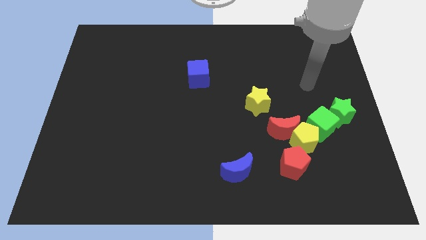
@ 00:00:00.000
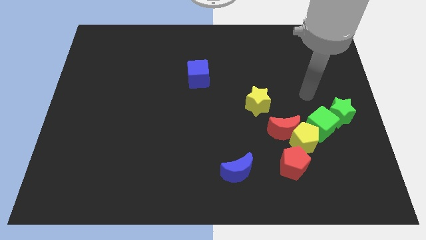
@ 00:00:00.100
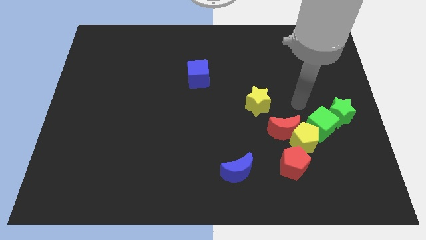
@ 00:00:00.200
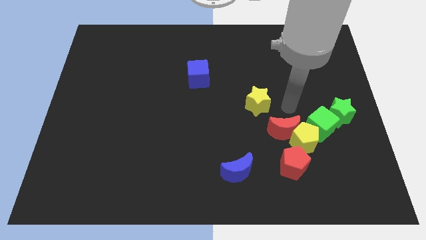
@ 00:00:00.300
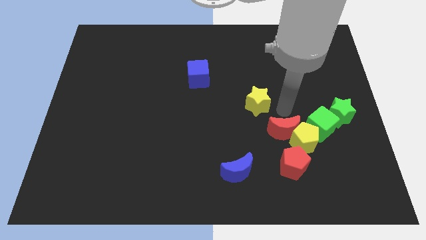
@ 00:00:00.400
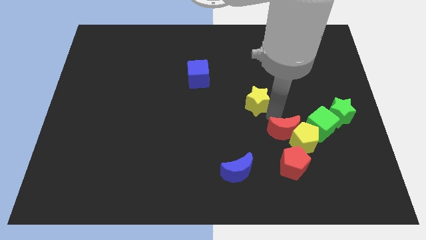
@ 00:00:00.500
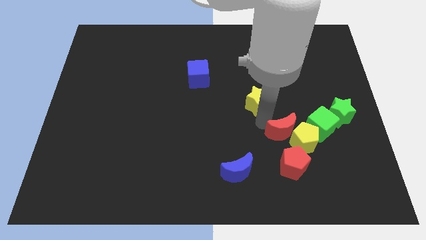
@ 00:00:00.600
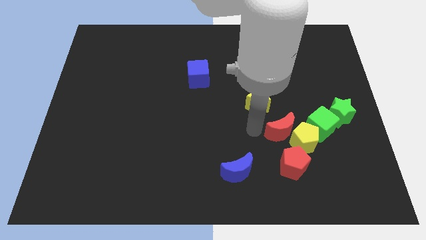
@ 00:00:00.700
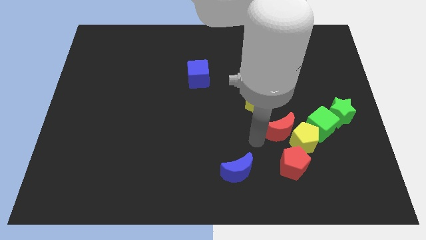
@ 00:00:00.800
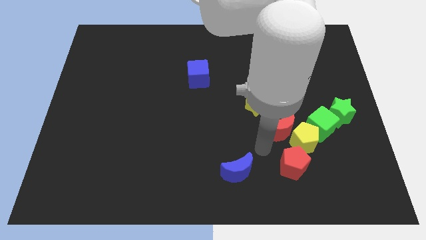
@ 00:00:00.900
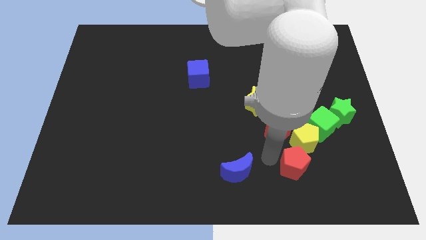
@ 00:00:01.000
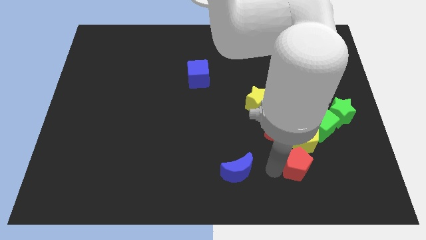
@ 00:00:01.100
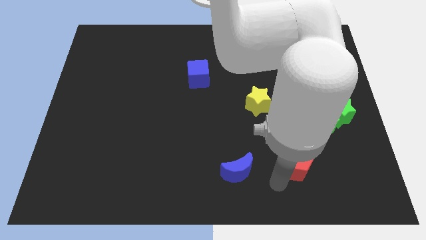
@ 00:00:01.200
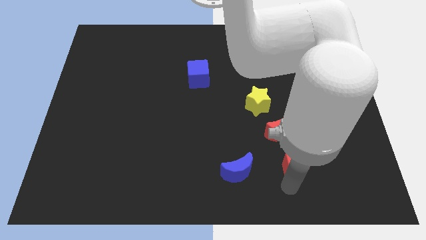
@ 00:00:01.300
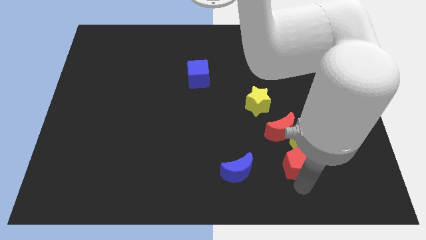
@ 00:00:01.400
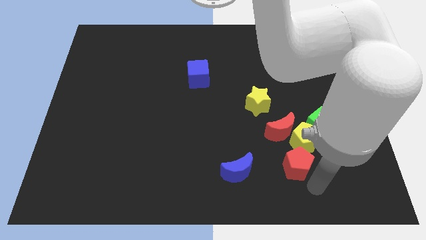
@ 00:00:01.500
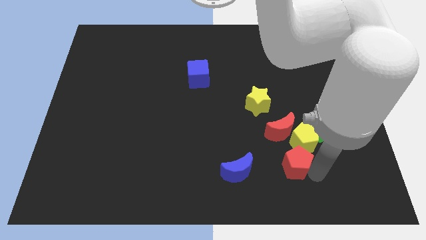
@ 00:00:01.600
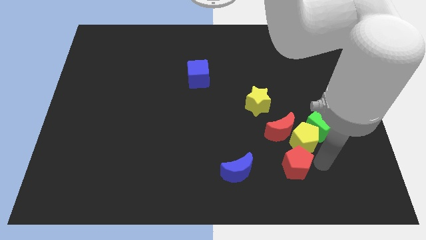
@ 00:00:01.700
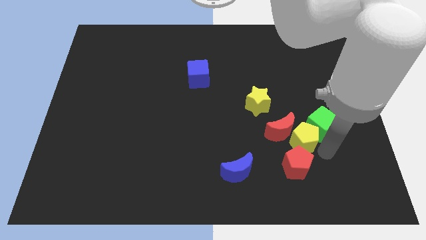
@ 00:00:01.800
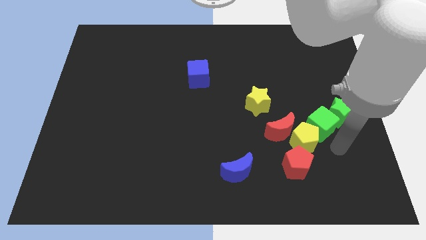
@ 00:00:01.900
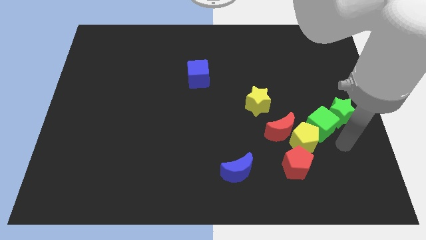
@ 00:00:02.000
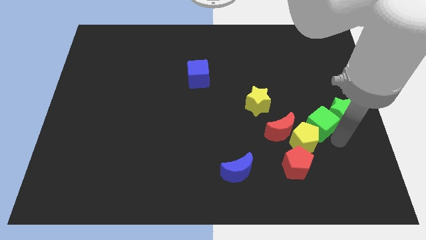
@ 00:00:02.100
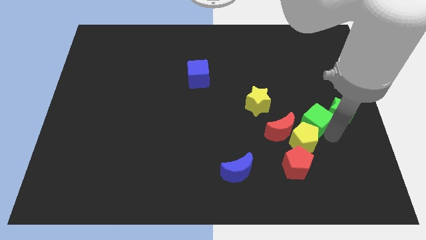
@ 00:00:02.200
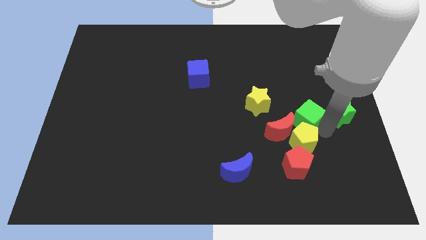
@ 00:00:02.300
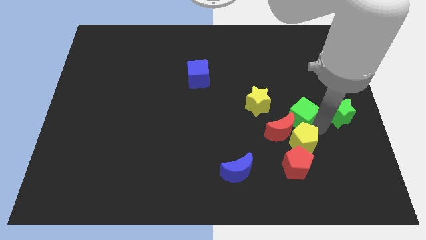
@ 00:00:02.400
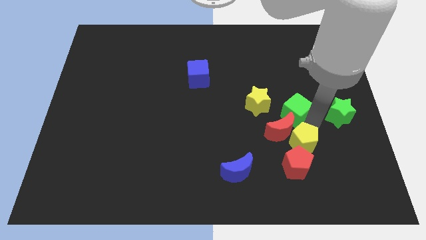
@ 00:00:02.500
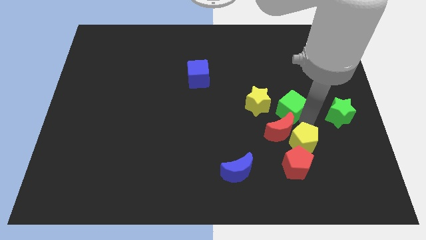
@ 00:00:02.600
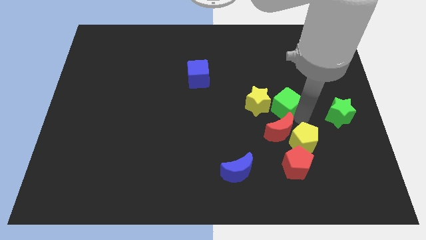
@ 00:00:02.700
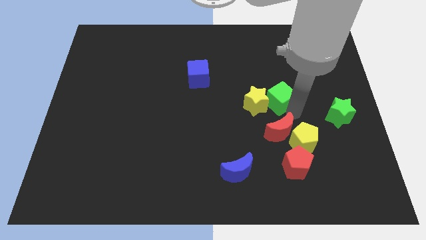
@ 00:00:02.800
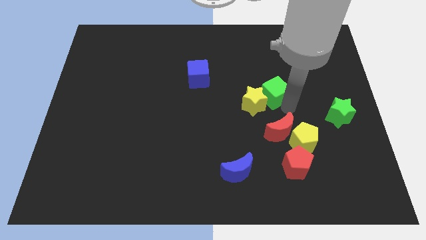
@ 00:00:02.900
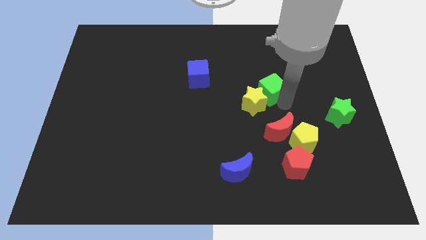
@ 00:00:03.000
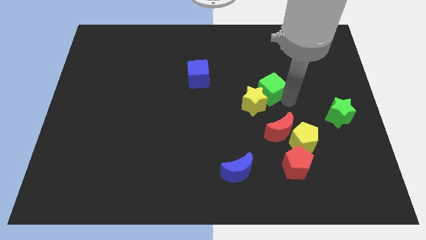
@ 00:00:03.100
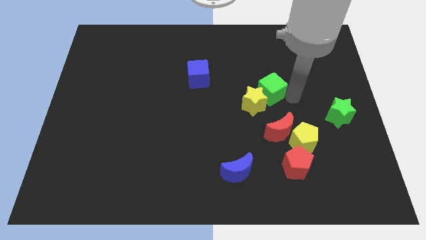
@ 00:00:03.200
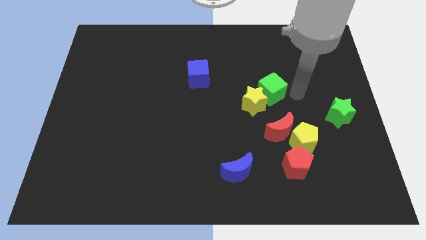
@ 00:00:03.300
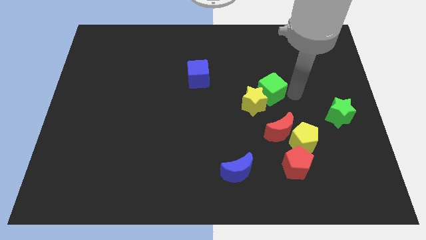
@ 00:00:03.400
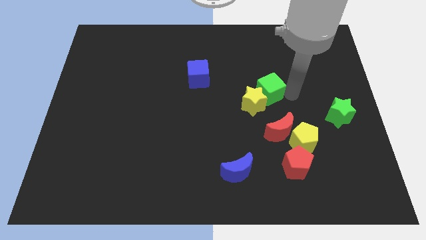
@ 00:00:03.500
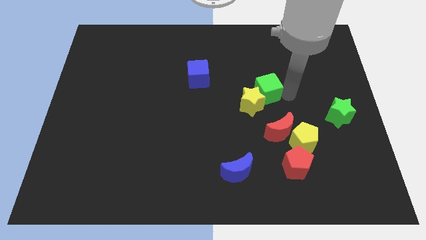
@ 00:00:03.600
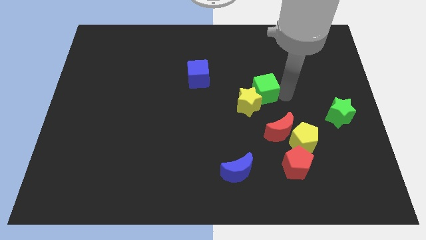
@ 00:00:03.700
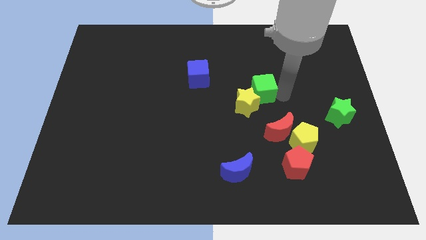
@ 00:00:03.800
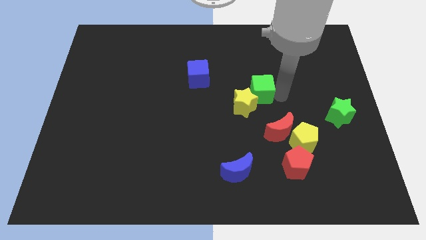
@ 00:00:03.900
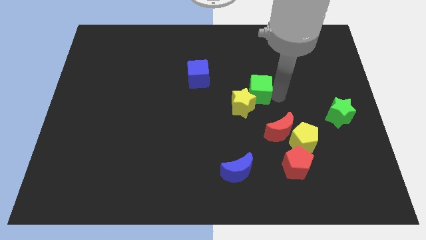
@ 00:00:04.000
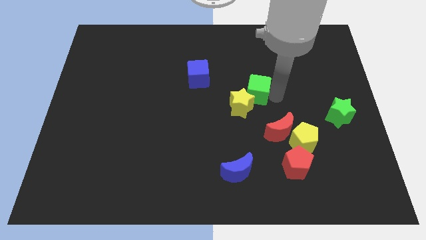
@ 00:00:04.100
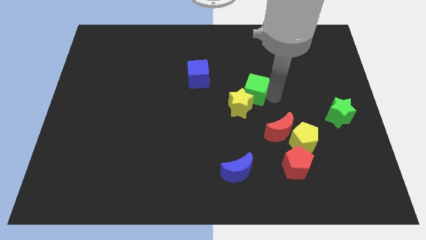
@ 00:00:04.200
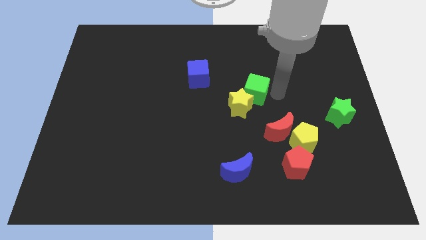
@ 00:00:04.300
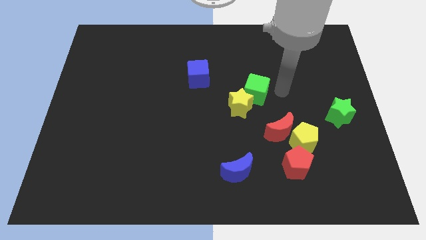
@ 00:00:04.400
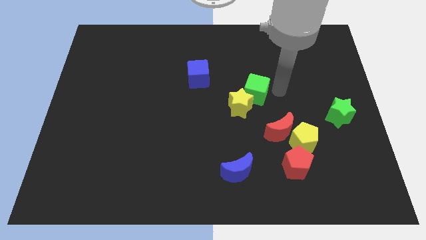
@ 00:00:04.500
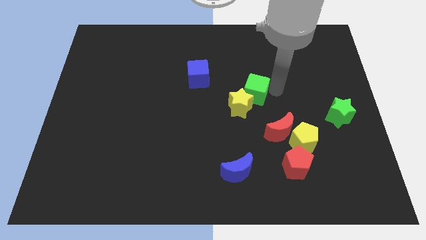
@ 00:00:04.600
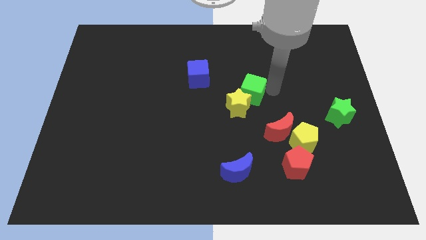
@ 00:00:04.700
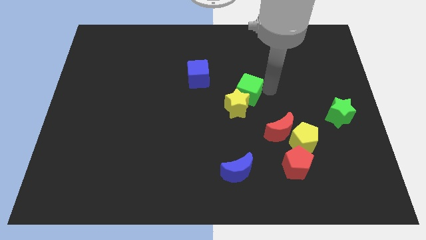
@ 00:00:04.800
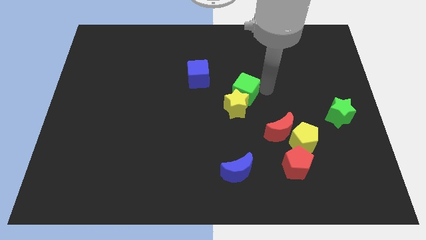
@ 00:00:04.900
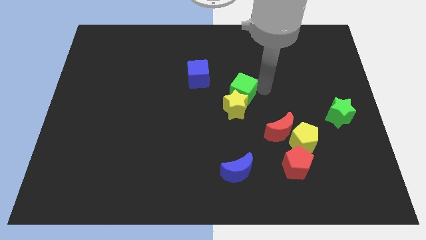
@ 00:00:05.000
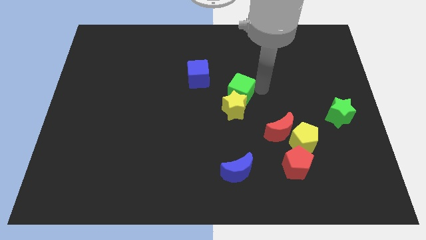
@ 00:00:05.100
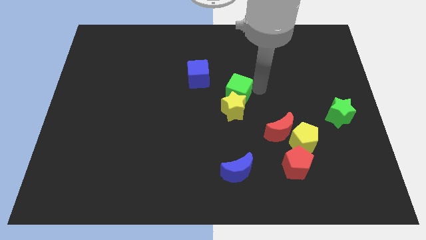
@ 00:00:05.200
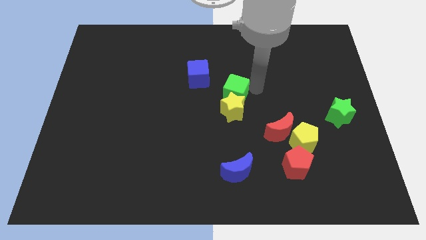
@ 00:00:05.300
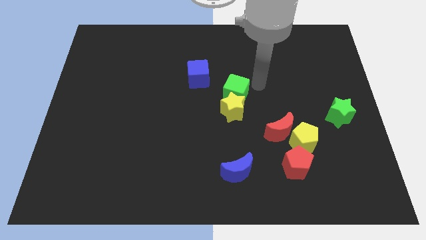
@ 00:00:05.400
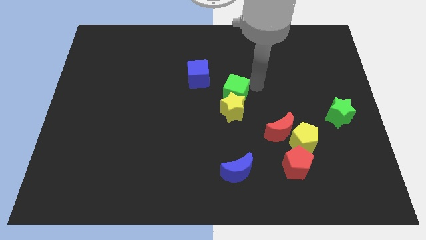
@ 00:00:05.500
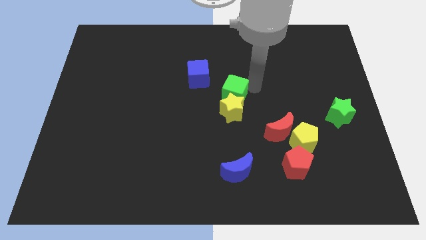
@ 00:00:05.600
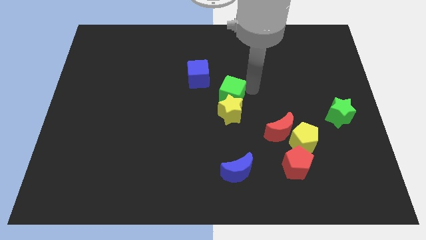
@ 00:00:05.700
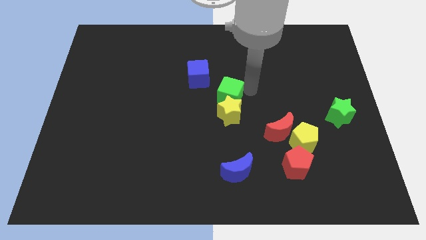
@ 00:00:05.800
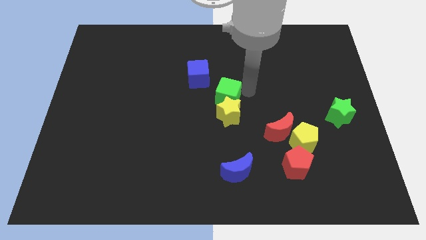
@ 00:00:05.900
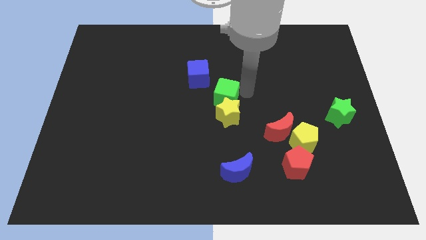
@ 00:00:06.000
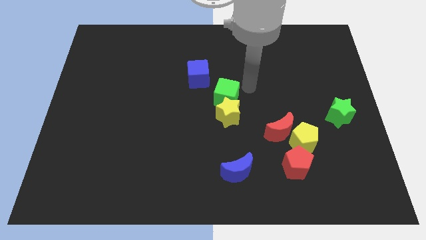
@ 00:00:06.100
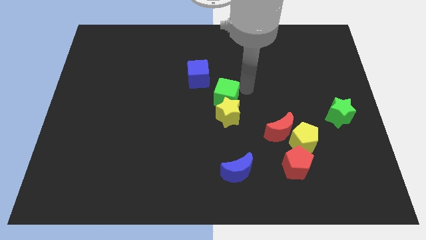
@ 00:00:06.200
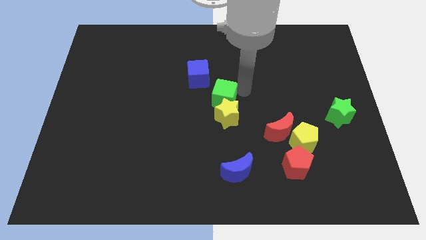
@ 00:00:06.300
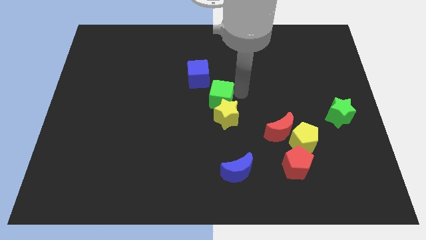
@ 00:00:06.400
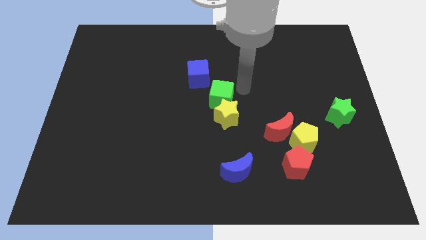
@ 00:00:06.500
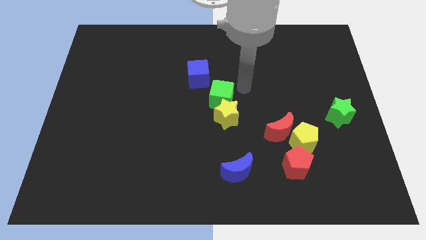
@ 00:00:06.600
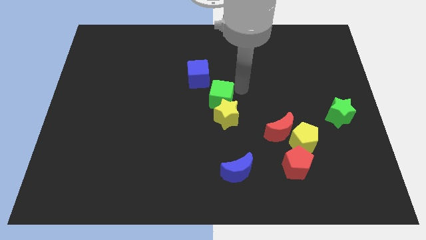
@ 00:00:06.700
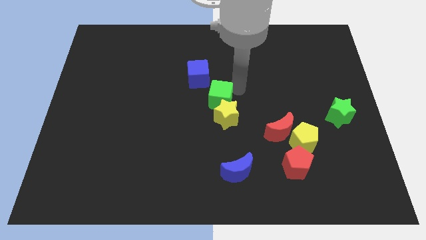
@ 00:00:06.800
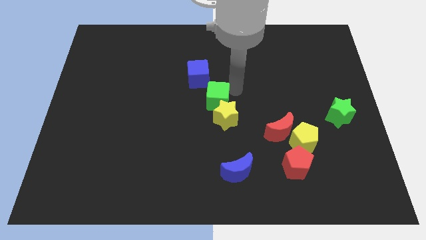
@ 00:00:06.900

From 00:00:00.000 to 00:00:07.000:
move the green cube to the left

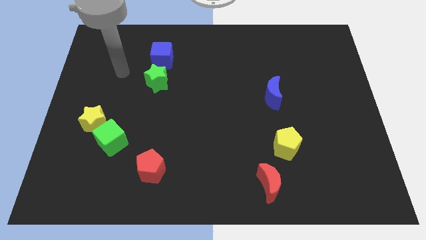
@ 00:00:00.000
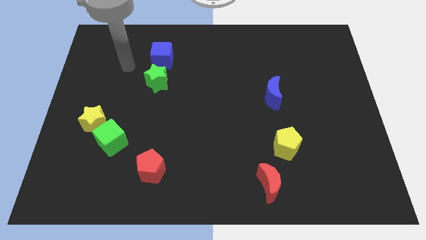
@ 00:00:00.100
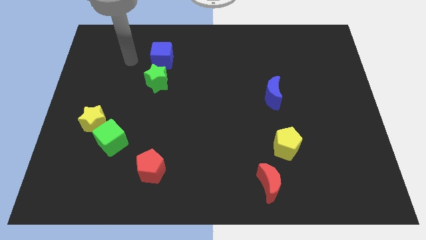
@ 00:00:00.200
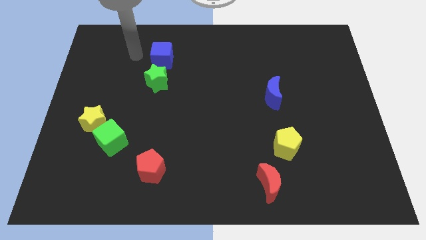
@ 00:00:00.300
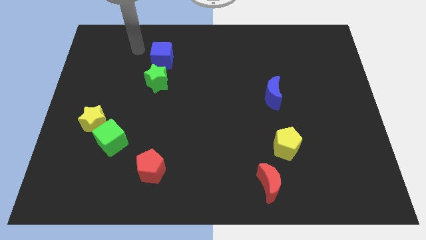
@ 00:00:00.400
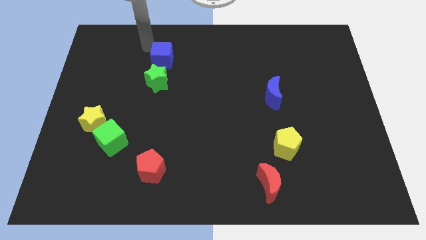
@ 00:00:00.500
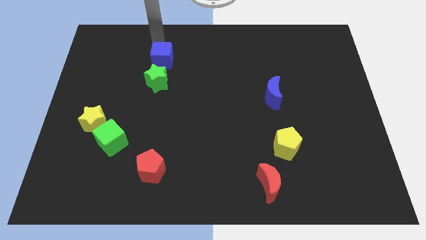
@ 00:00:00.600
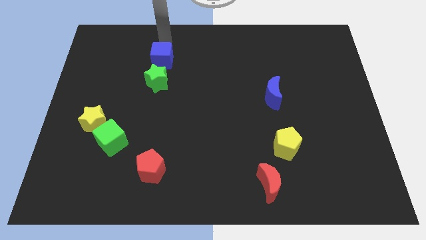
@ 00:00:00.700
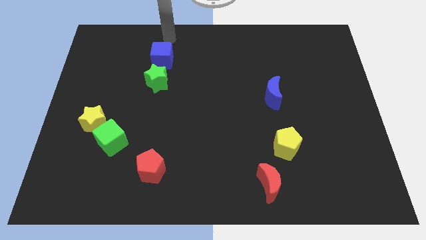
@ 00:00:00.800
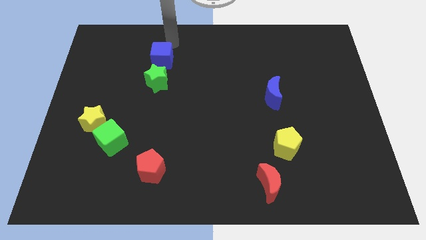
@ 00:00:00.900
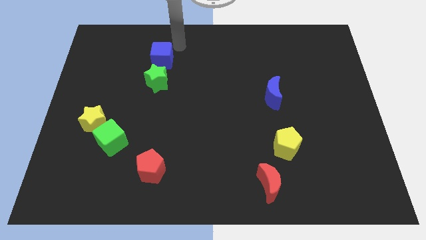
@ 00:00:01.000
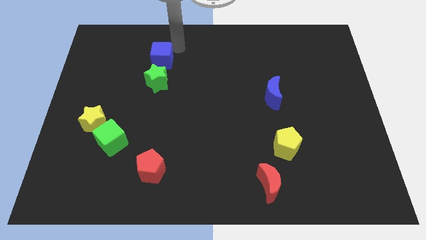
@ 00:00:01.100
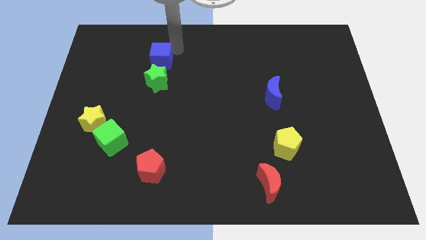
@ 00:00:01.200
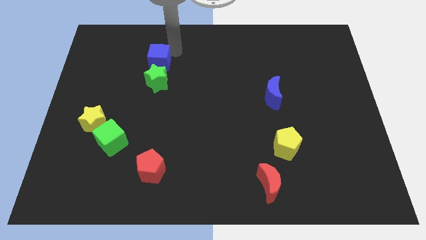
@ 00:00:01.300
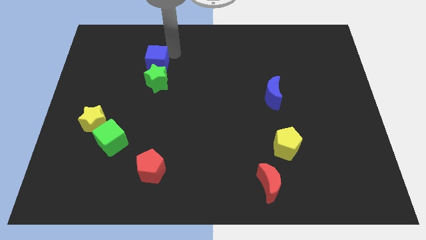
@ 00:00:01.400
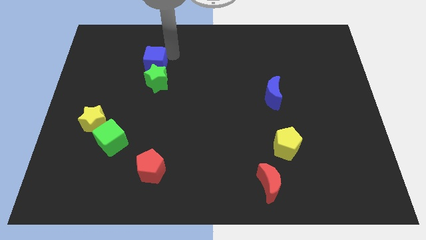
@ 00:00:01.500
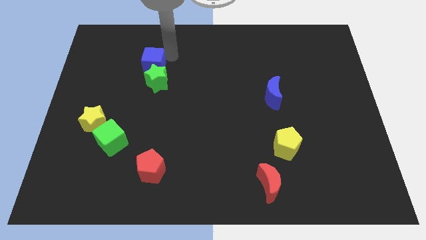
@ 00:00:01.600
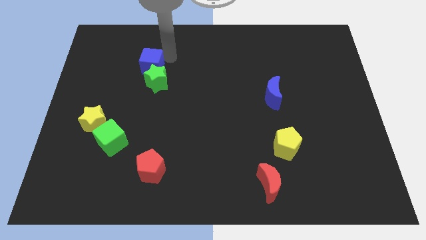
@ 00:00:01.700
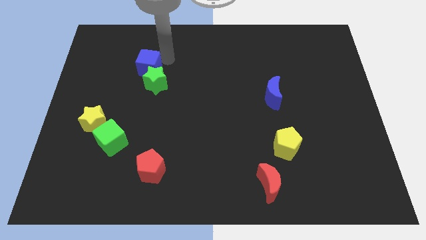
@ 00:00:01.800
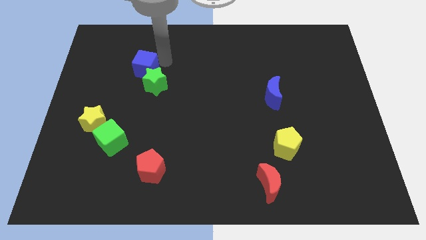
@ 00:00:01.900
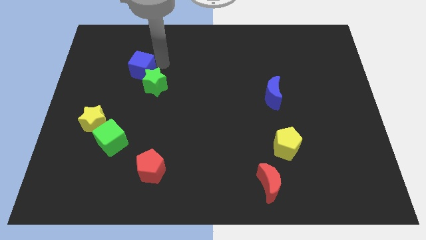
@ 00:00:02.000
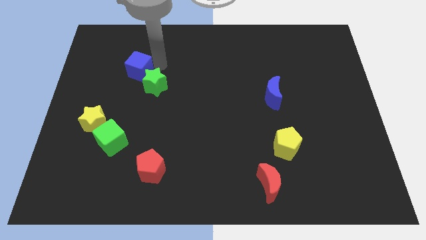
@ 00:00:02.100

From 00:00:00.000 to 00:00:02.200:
slide the blue cube a little bit down and left
